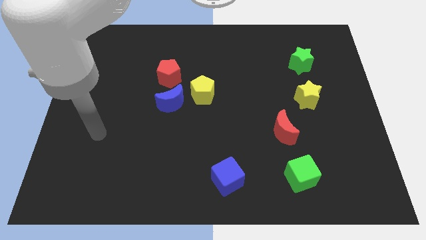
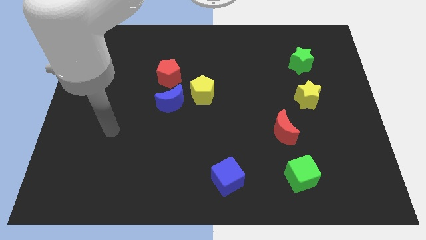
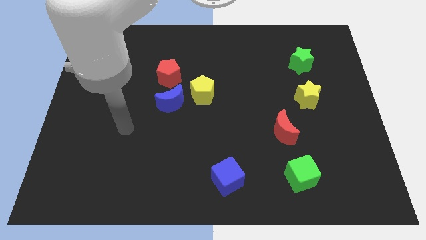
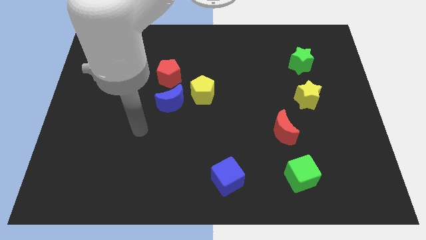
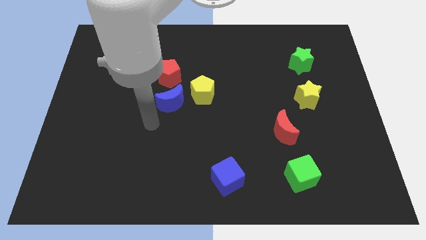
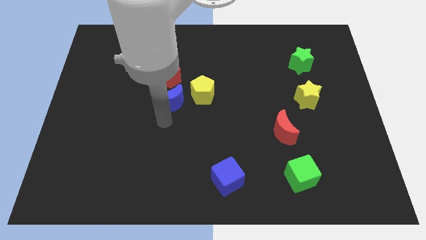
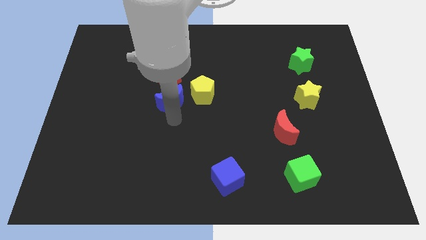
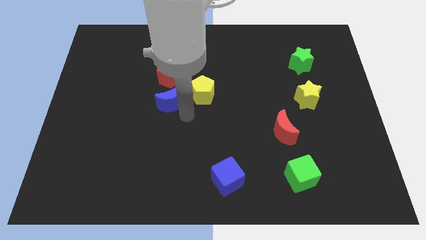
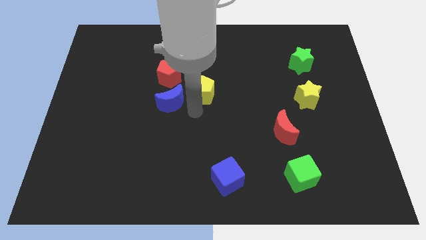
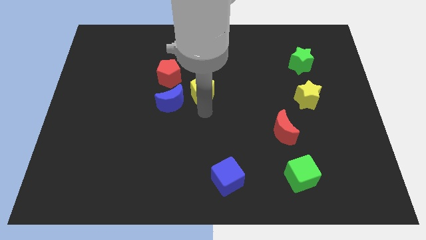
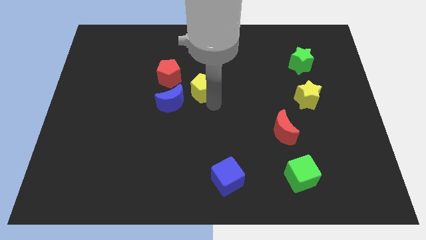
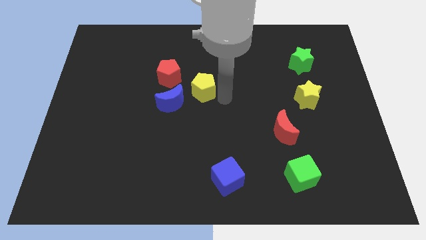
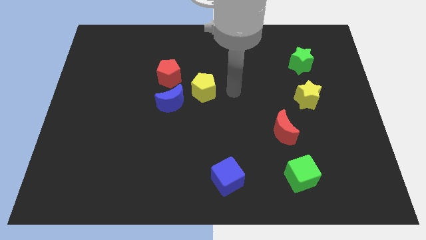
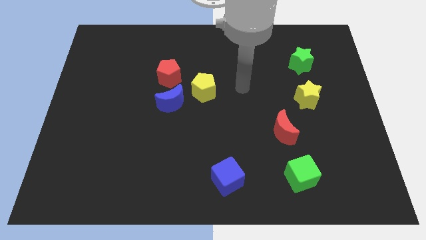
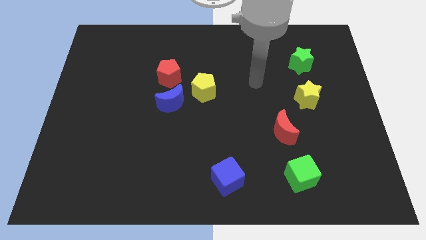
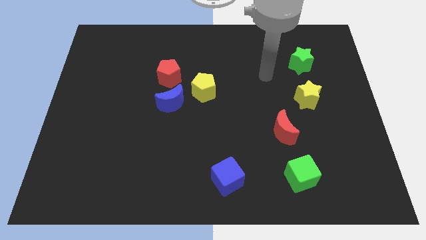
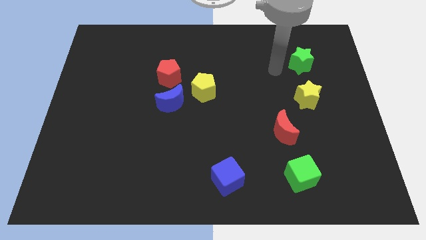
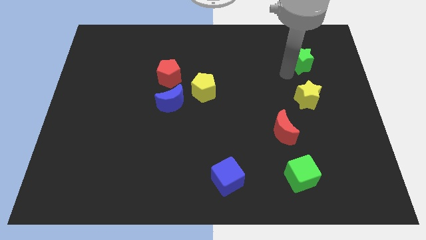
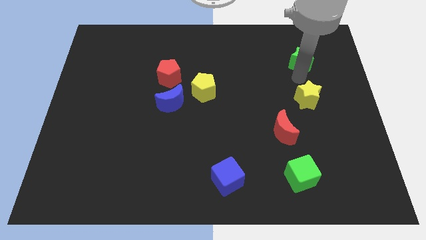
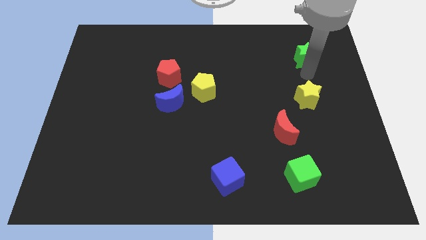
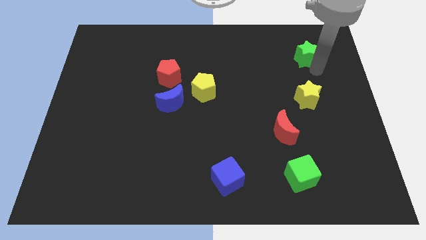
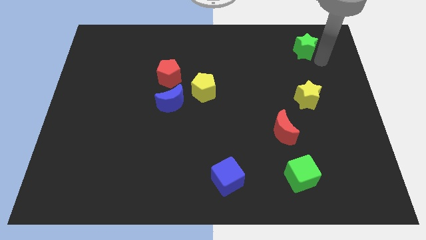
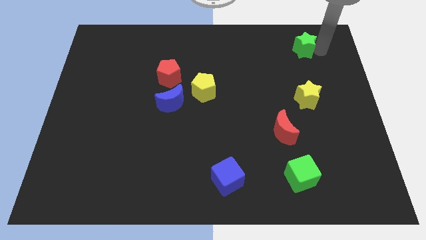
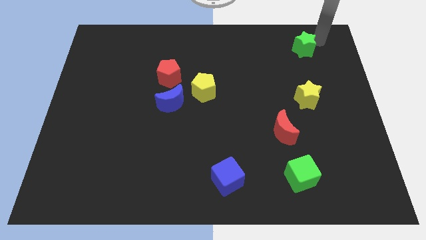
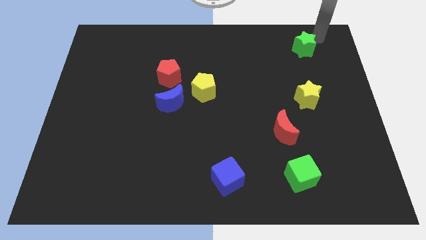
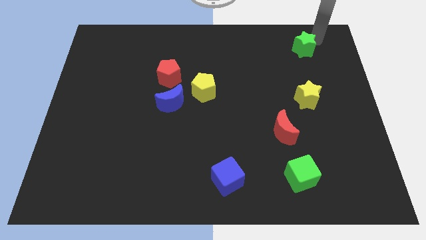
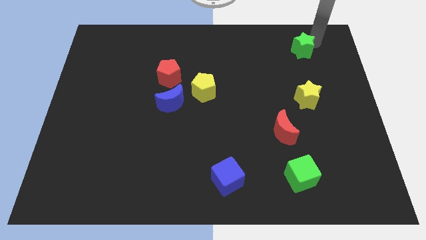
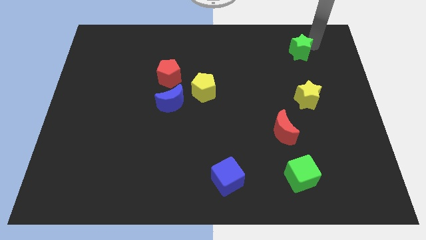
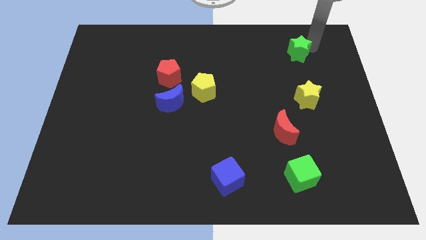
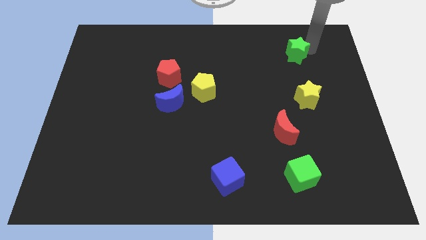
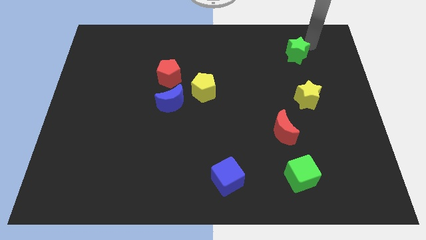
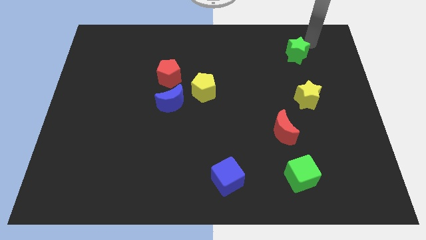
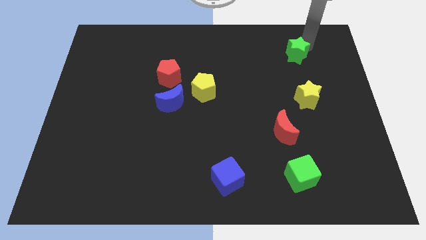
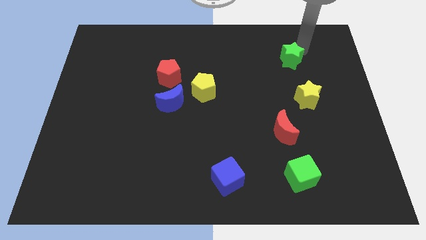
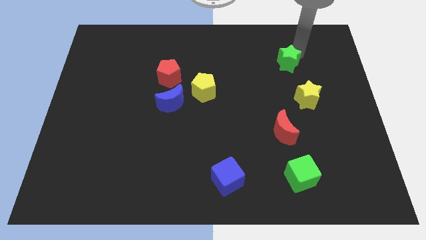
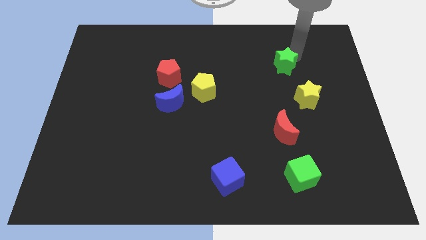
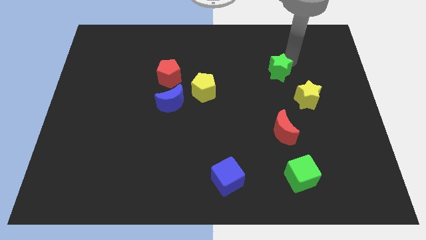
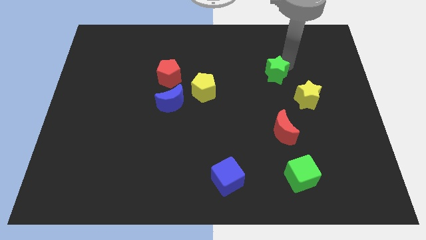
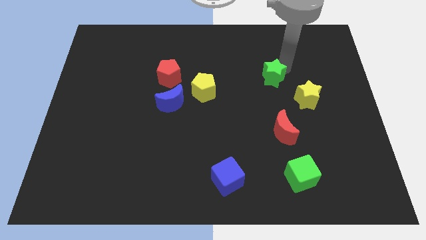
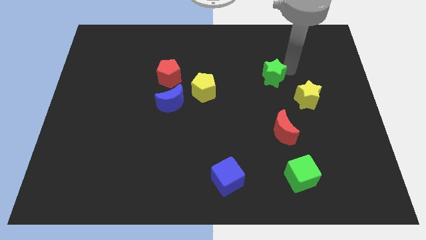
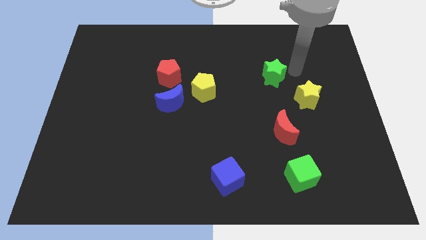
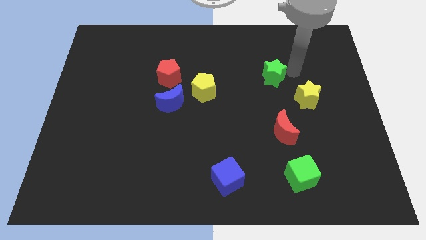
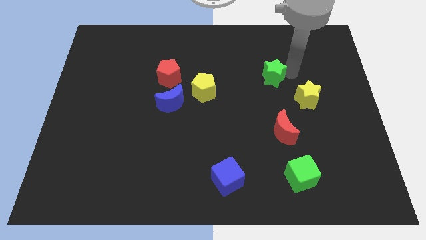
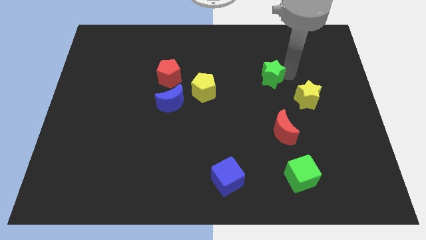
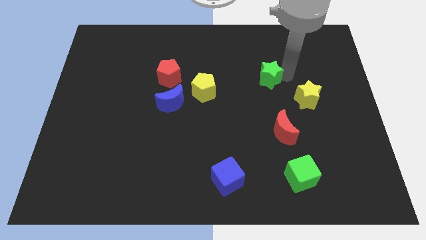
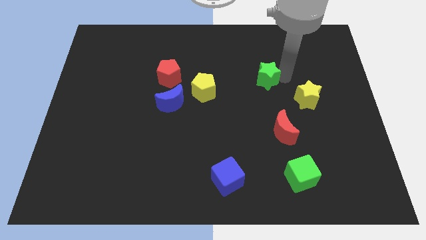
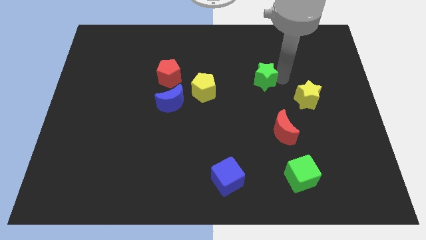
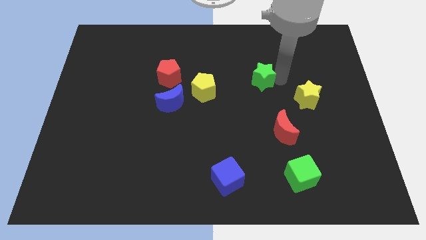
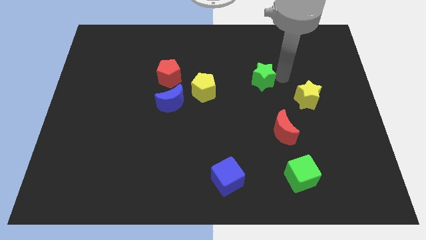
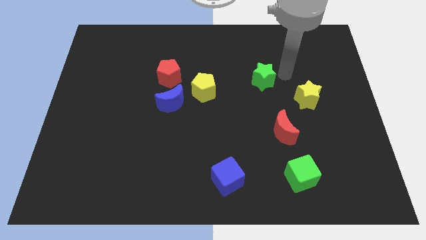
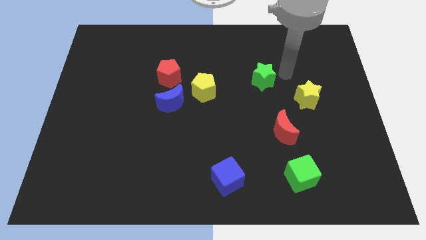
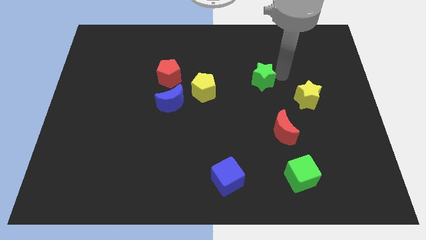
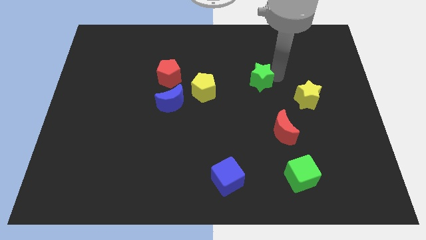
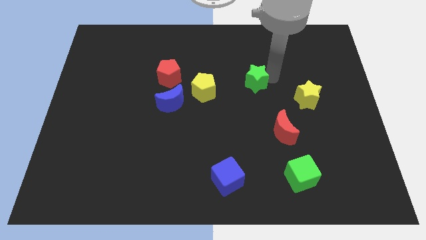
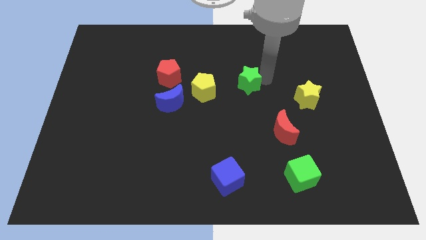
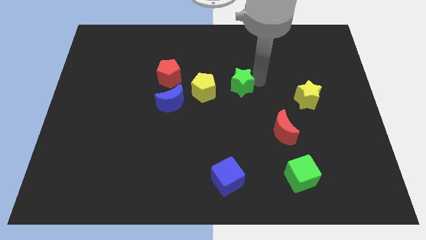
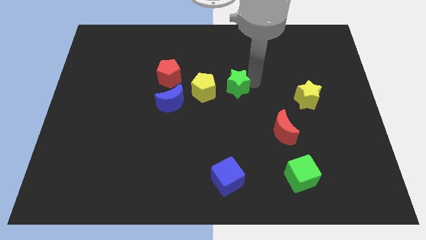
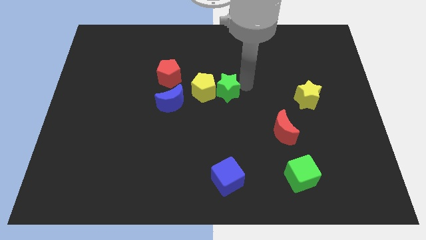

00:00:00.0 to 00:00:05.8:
push the green star to the yellow pentagon

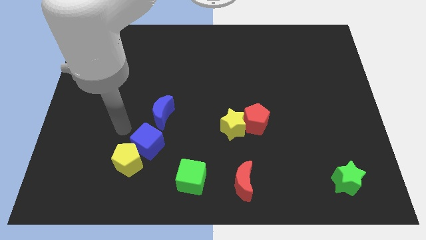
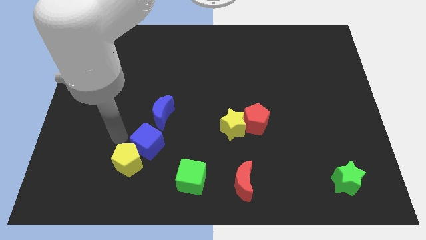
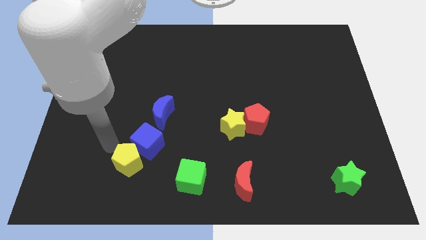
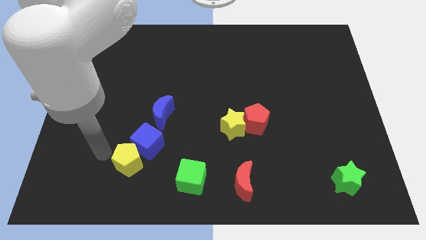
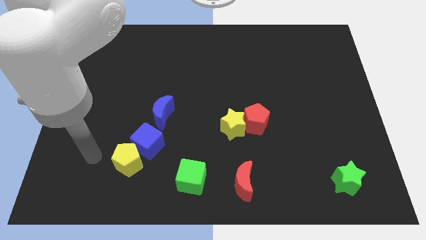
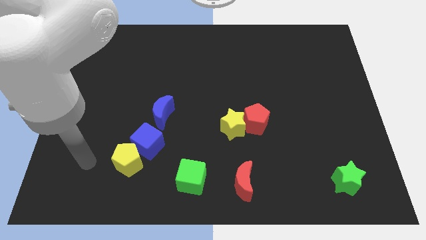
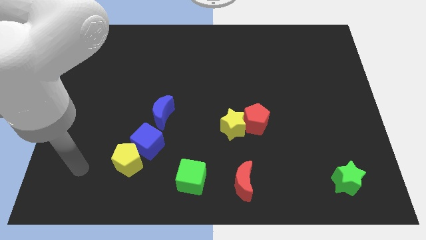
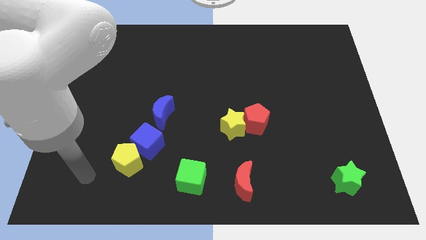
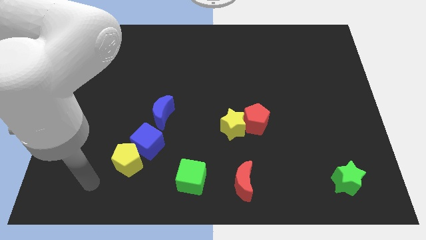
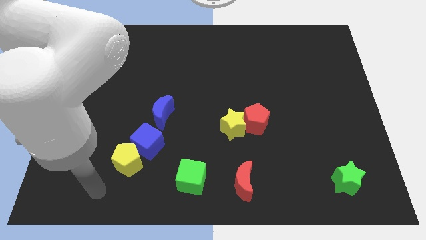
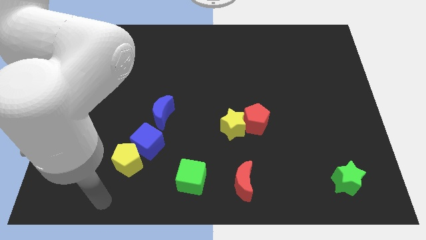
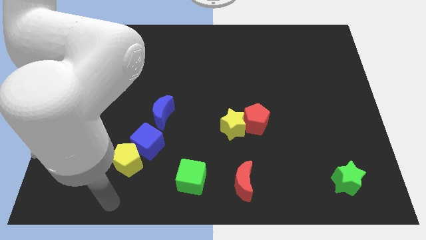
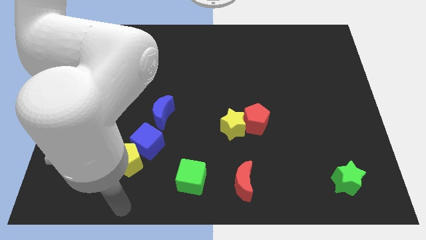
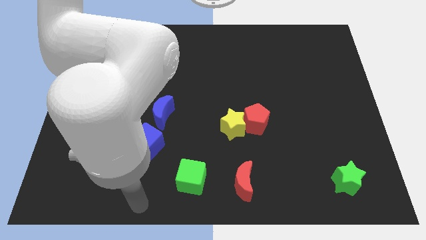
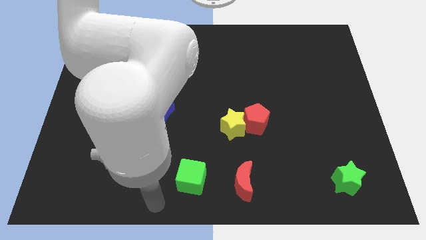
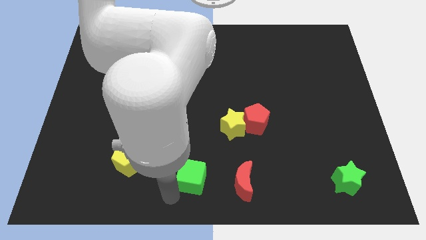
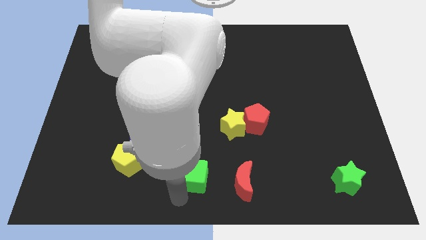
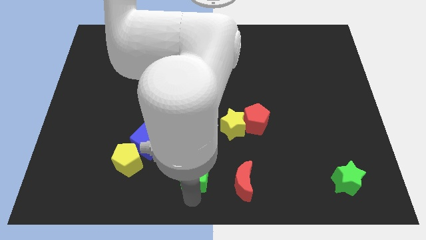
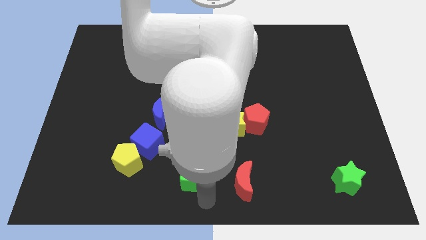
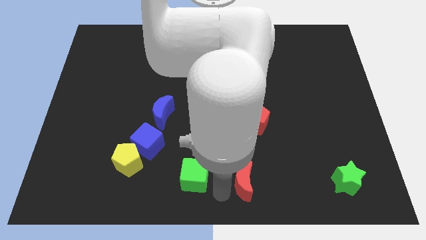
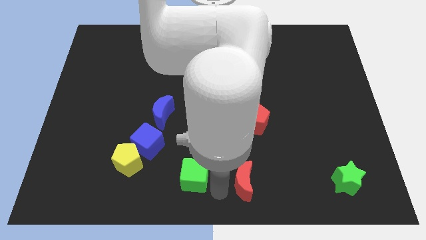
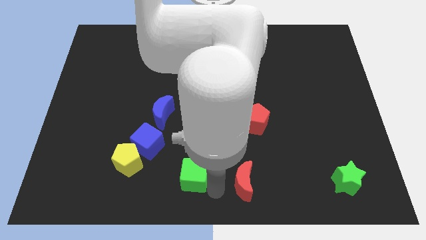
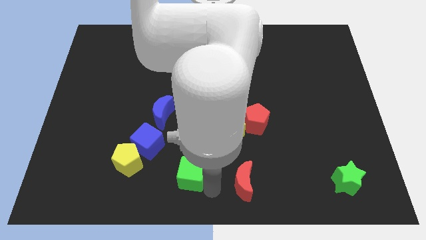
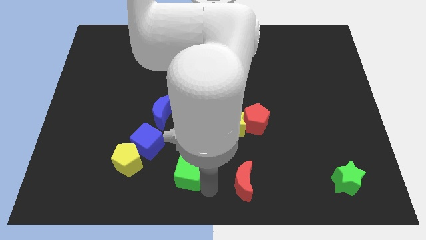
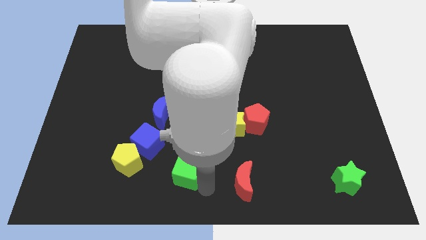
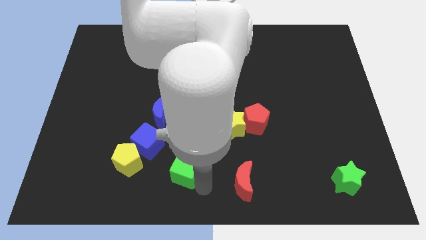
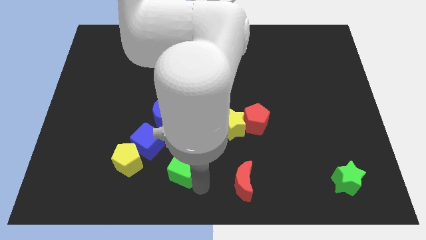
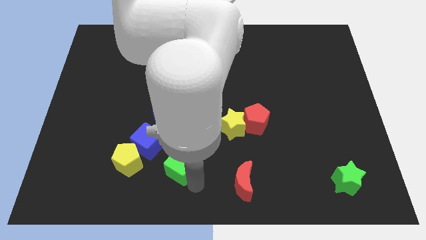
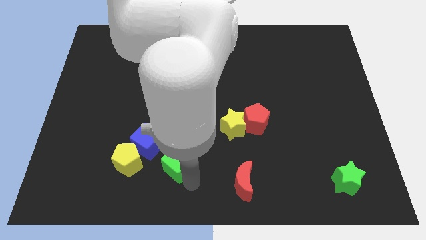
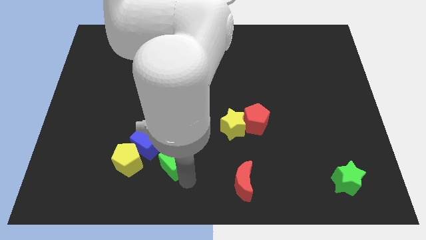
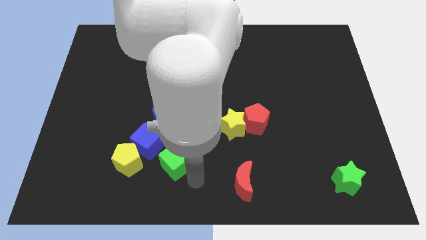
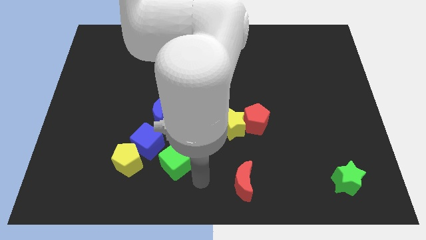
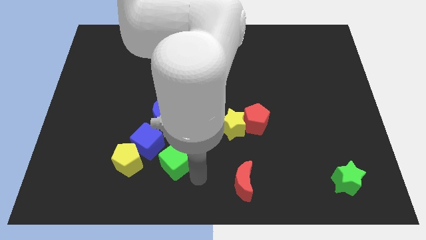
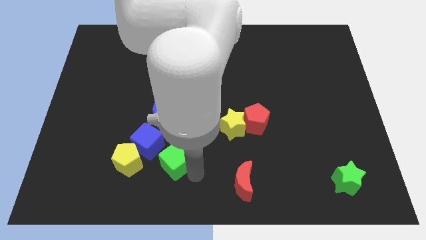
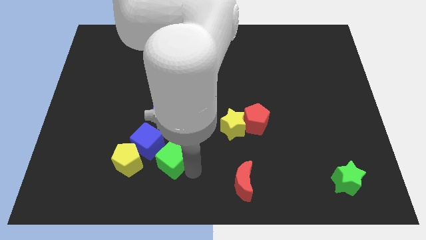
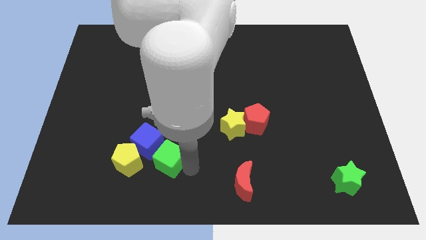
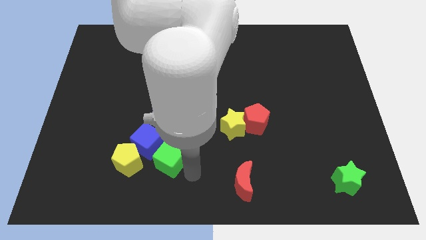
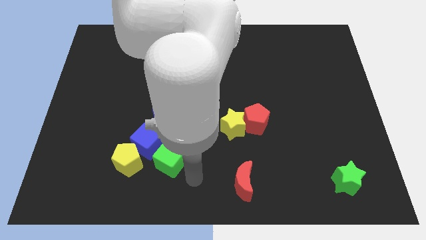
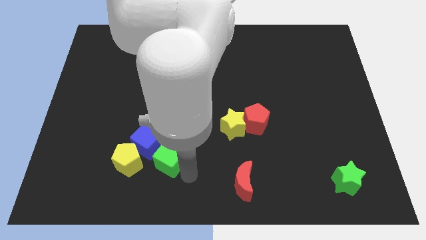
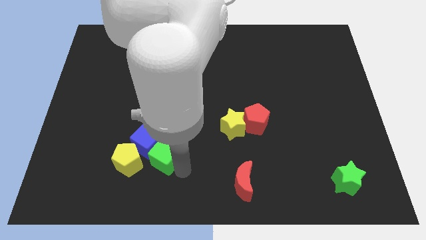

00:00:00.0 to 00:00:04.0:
slide the green cube towards the blue cube
